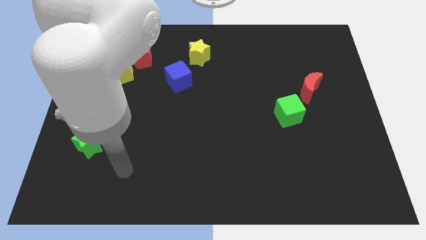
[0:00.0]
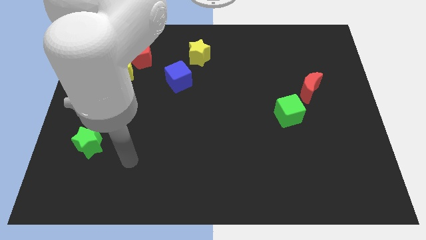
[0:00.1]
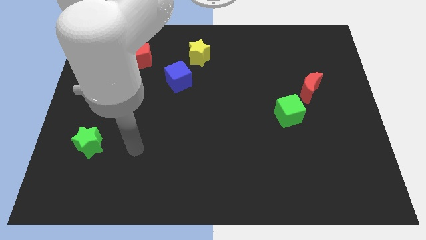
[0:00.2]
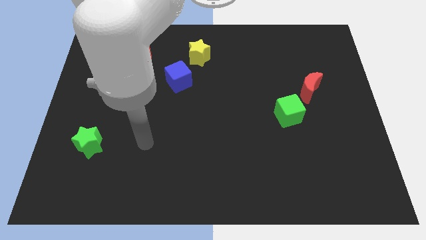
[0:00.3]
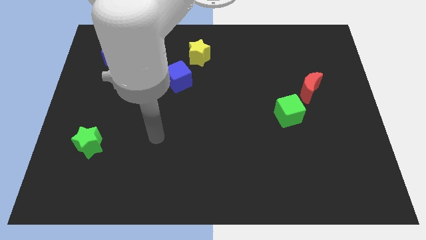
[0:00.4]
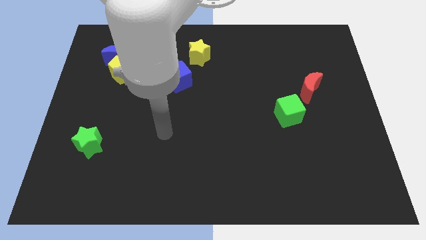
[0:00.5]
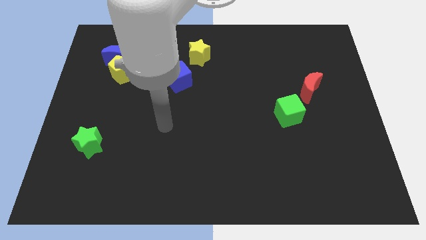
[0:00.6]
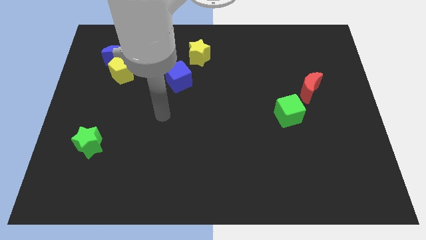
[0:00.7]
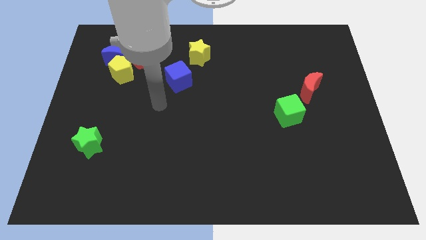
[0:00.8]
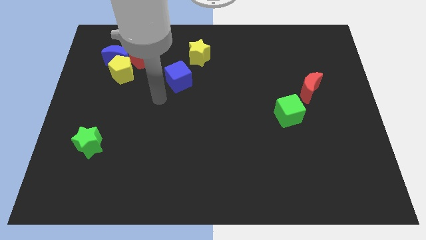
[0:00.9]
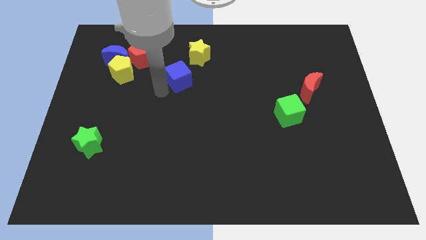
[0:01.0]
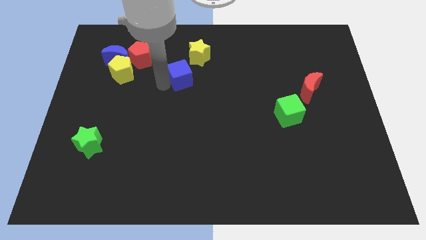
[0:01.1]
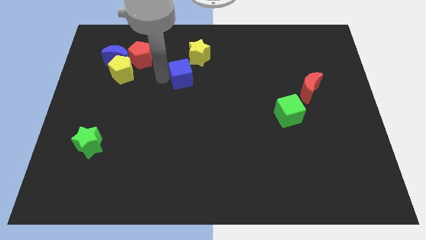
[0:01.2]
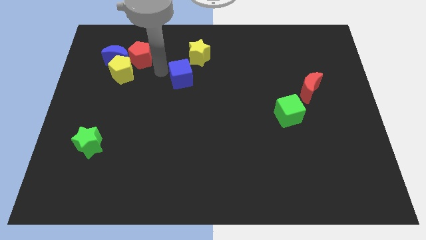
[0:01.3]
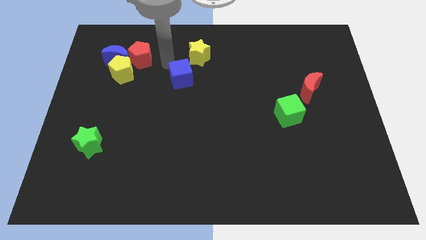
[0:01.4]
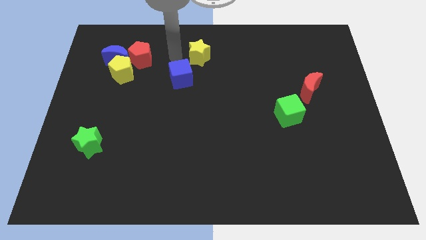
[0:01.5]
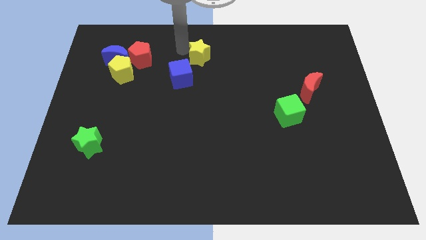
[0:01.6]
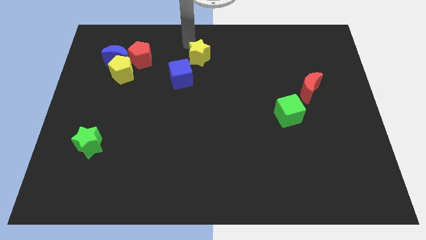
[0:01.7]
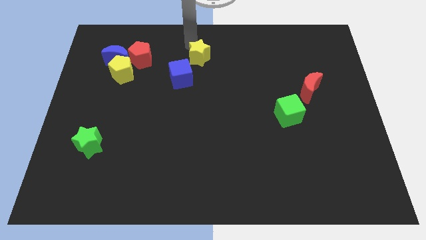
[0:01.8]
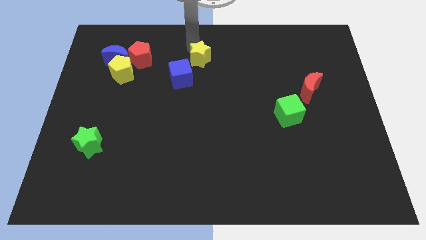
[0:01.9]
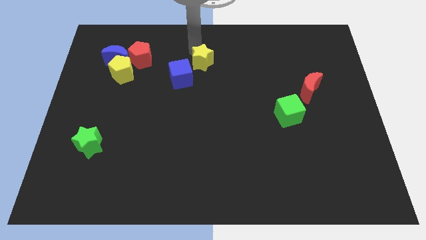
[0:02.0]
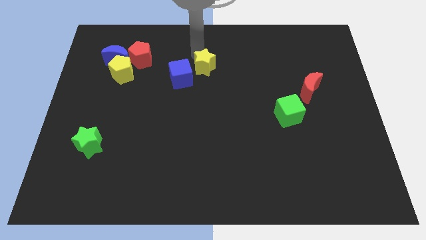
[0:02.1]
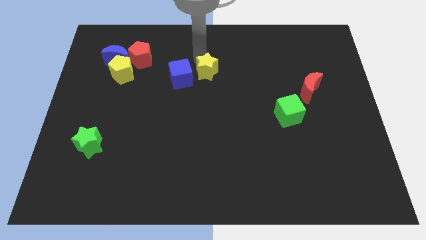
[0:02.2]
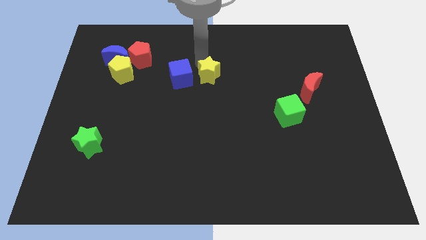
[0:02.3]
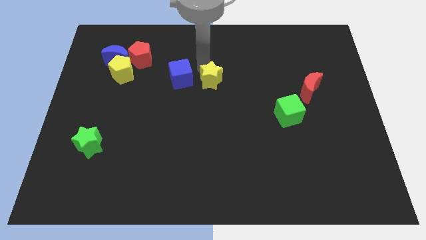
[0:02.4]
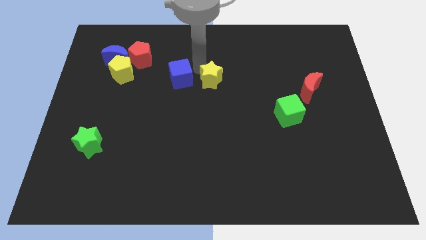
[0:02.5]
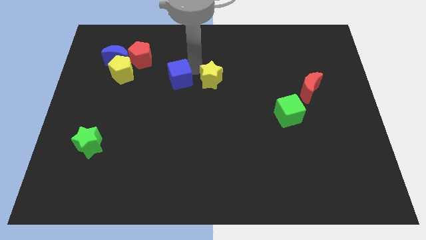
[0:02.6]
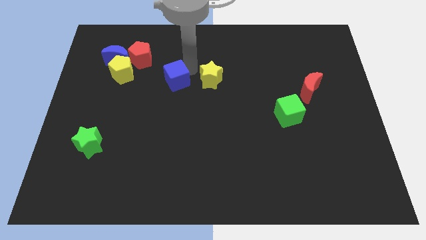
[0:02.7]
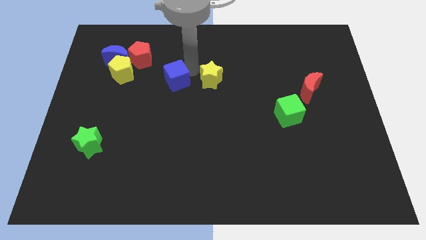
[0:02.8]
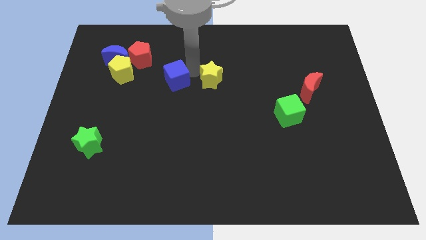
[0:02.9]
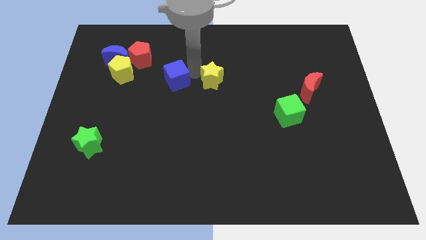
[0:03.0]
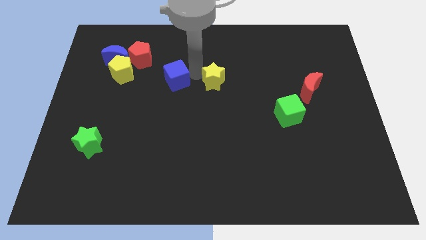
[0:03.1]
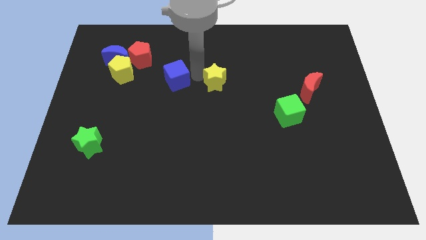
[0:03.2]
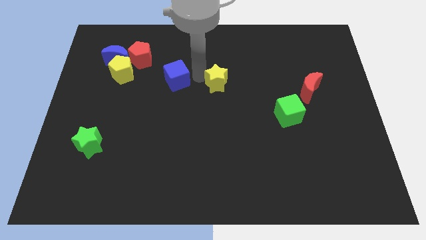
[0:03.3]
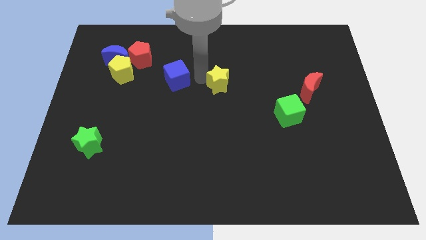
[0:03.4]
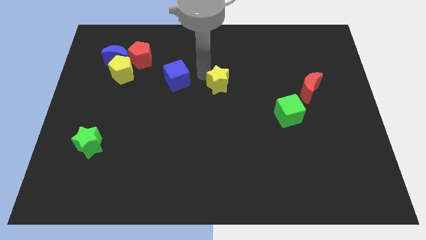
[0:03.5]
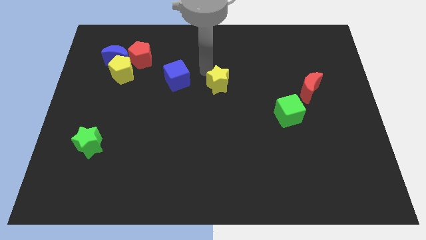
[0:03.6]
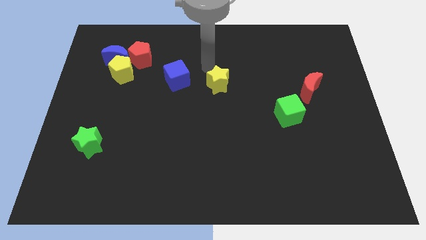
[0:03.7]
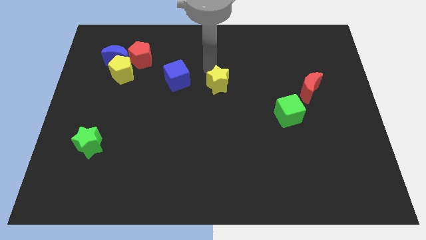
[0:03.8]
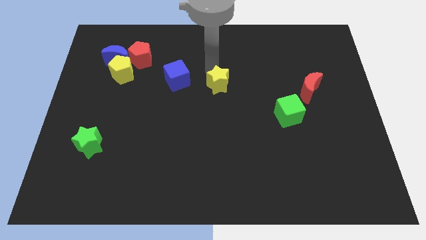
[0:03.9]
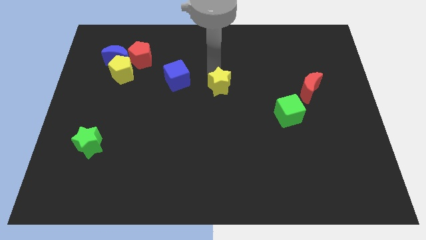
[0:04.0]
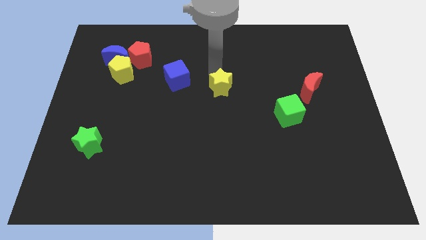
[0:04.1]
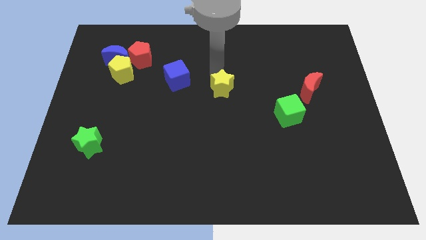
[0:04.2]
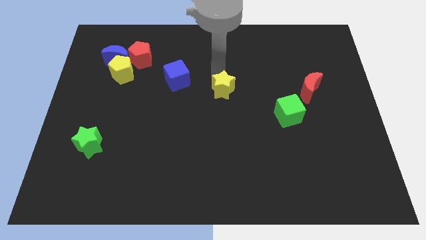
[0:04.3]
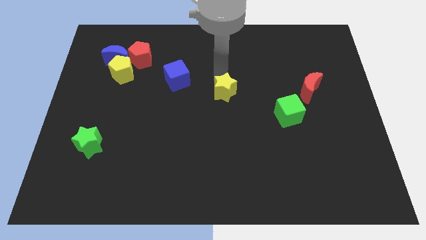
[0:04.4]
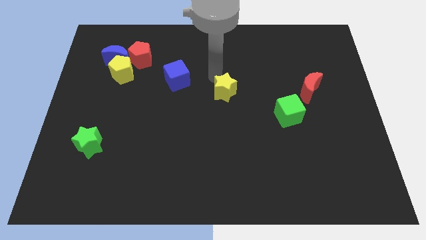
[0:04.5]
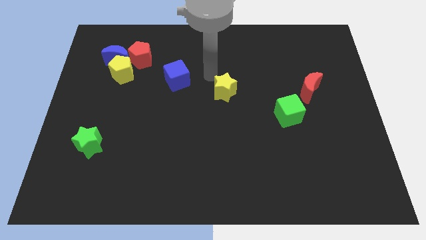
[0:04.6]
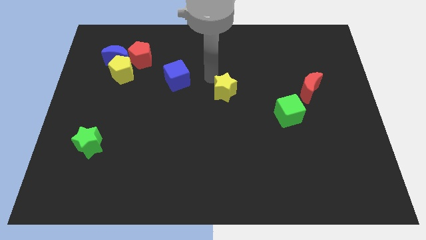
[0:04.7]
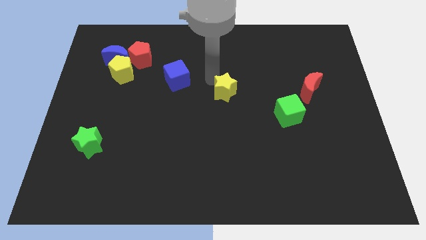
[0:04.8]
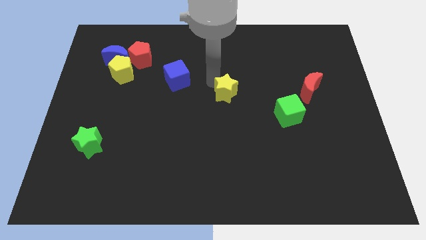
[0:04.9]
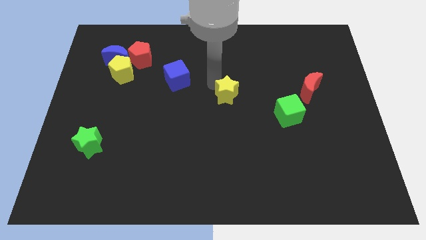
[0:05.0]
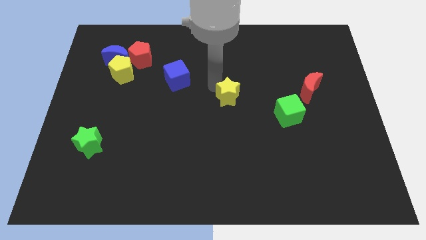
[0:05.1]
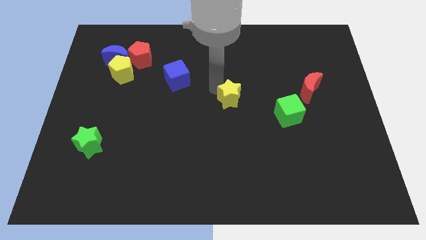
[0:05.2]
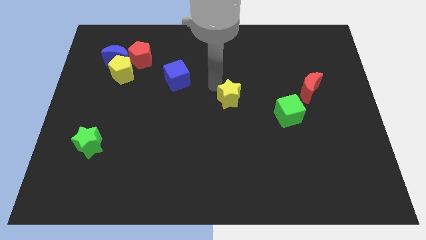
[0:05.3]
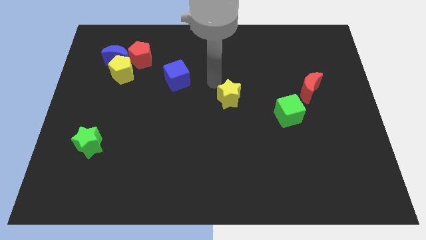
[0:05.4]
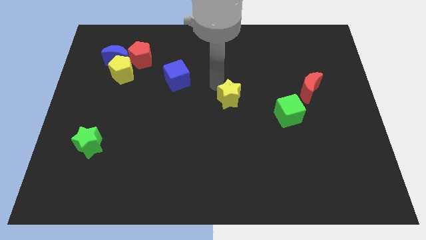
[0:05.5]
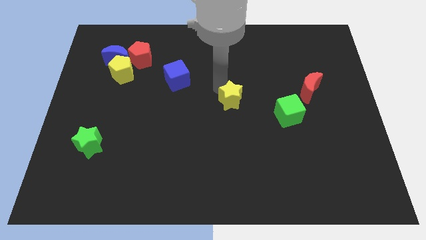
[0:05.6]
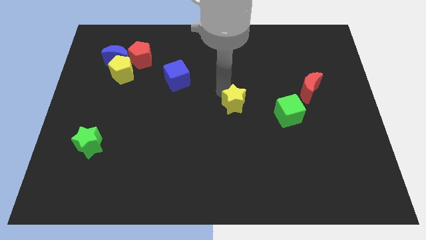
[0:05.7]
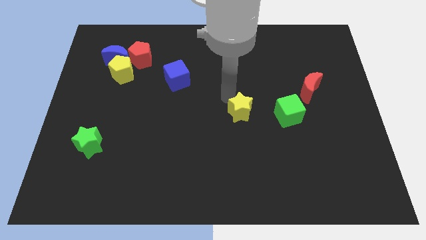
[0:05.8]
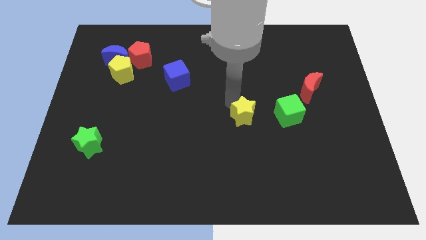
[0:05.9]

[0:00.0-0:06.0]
move the yellow star down and right

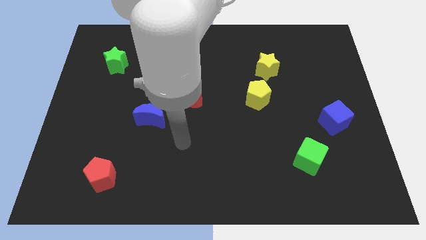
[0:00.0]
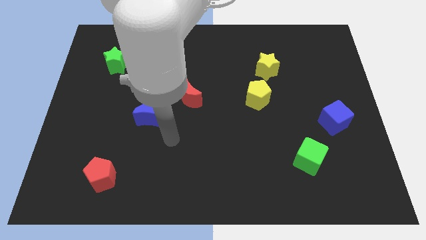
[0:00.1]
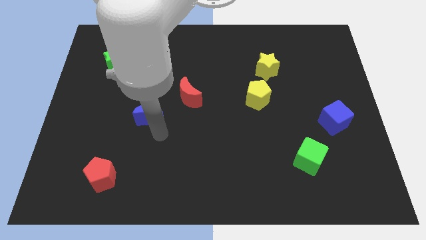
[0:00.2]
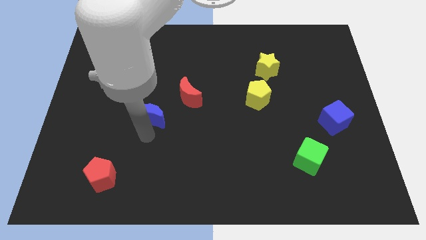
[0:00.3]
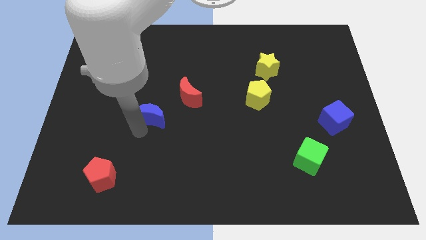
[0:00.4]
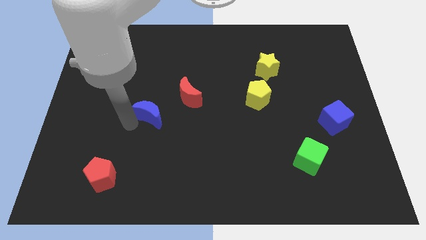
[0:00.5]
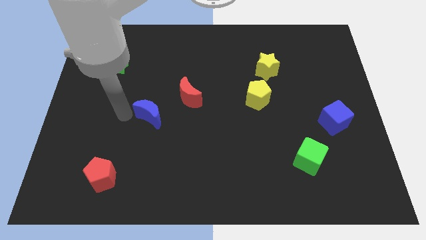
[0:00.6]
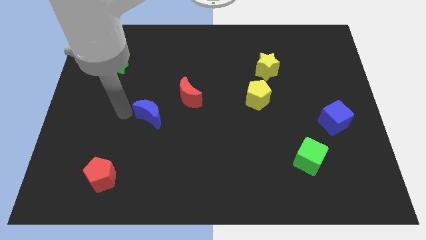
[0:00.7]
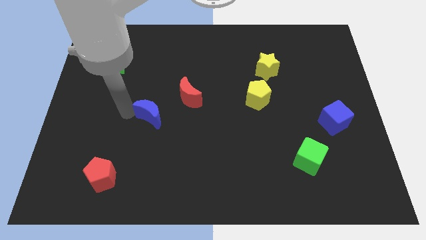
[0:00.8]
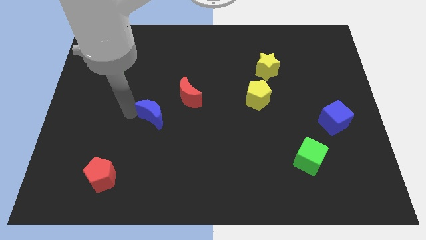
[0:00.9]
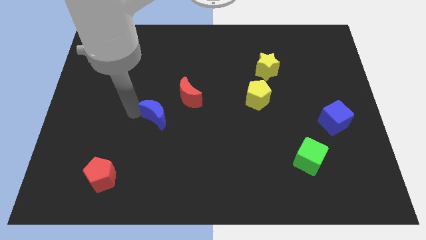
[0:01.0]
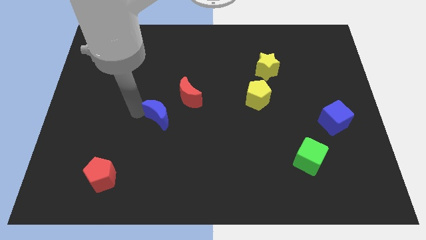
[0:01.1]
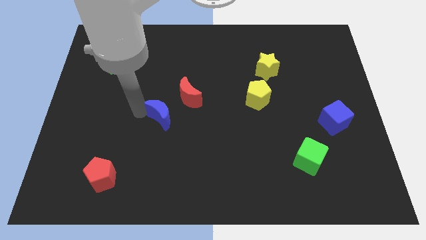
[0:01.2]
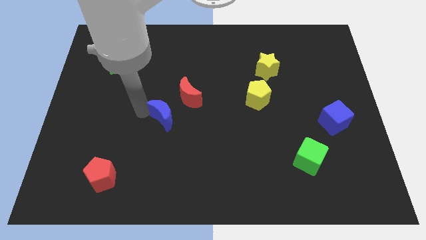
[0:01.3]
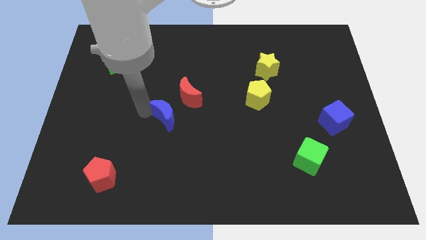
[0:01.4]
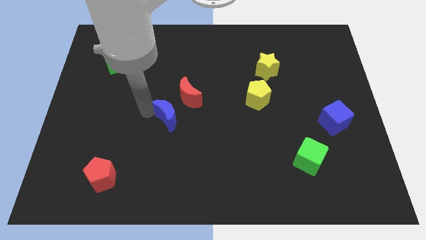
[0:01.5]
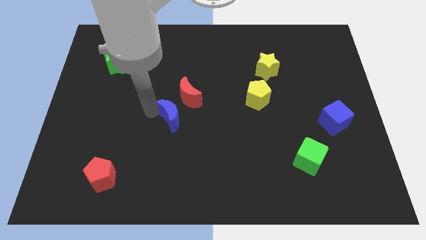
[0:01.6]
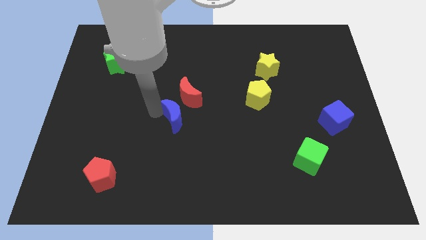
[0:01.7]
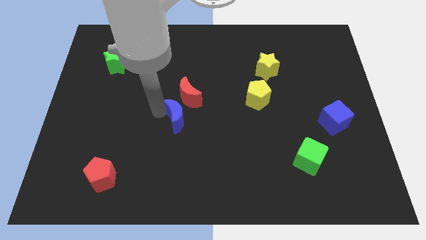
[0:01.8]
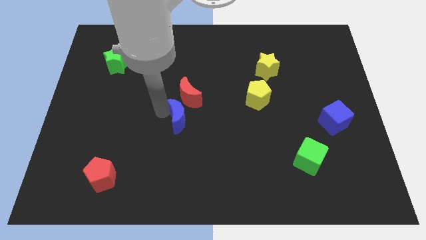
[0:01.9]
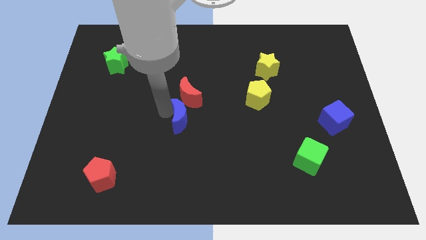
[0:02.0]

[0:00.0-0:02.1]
push the blue moon a bit right
